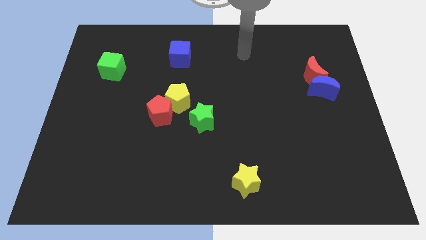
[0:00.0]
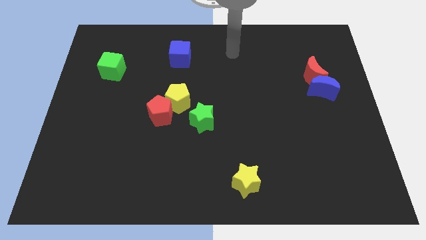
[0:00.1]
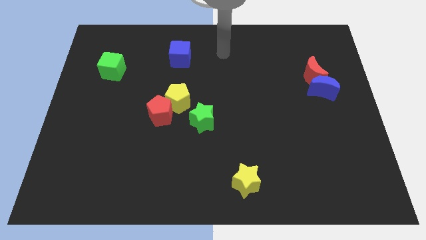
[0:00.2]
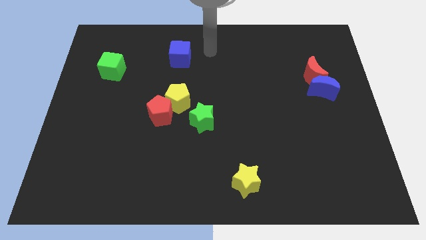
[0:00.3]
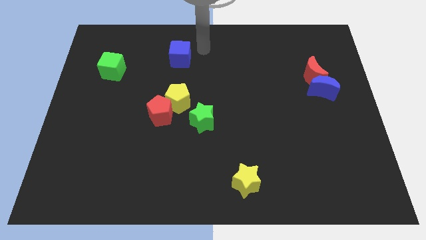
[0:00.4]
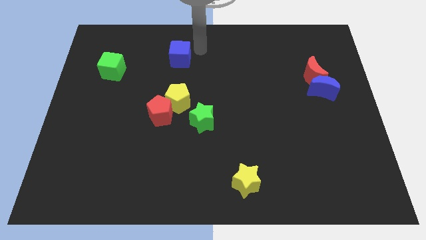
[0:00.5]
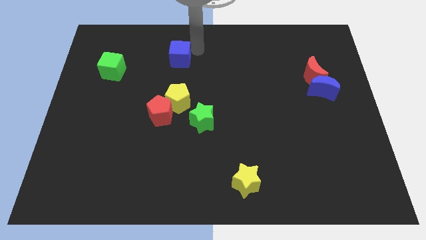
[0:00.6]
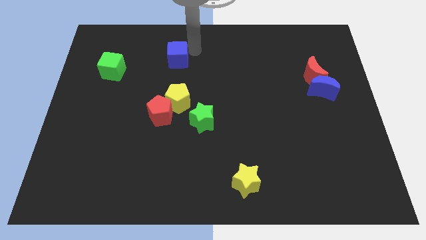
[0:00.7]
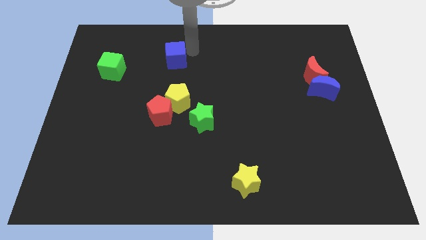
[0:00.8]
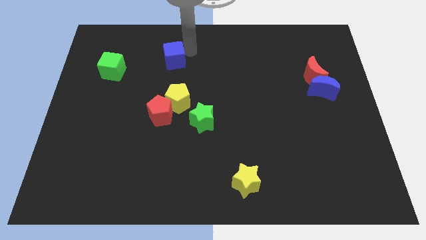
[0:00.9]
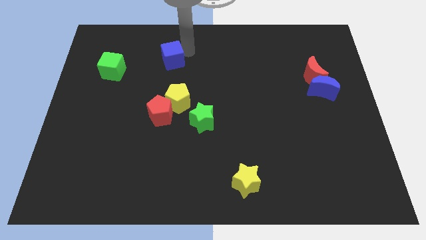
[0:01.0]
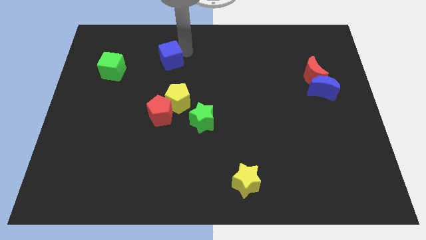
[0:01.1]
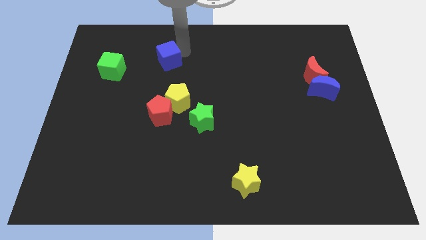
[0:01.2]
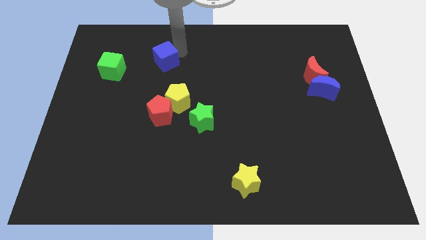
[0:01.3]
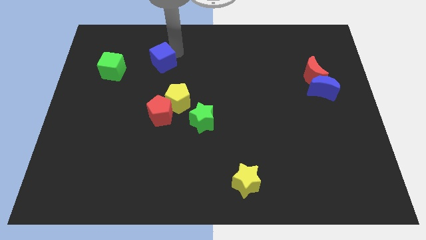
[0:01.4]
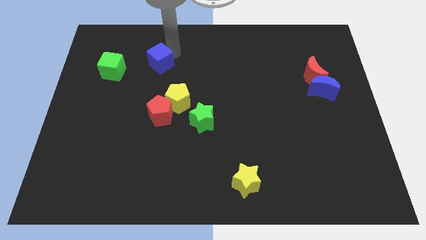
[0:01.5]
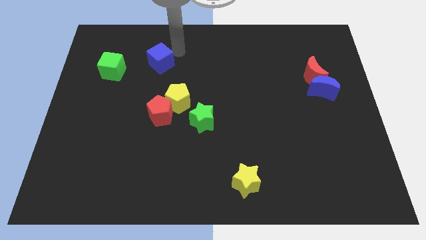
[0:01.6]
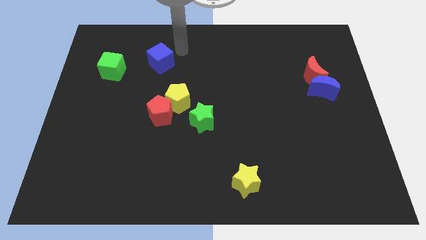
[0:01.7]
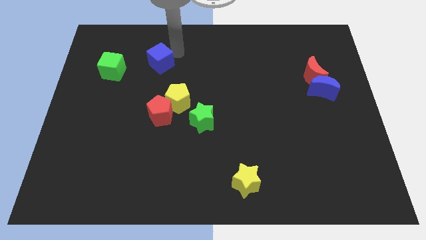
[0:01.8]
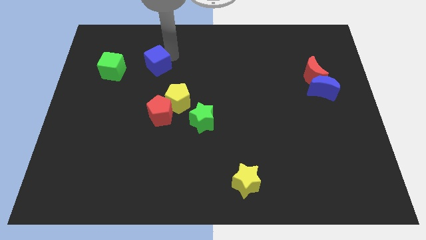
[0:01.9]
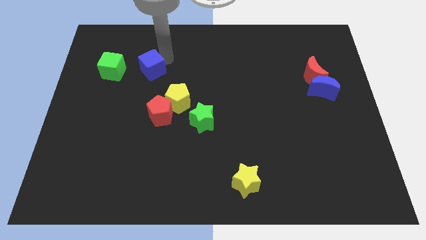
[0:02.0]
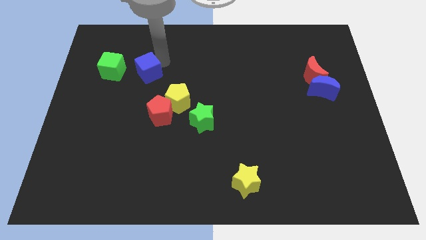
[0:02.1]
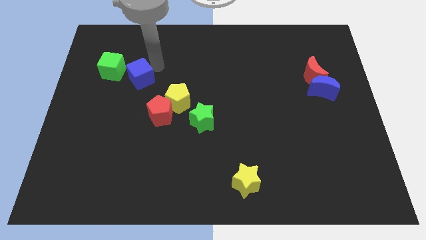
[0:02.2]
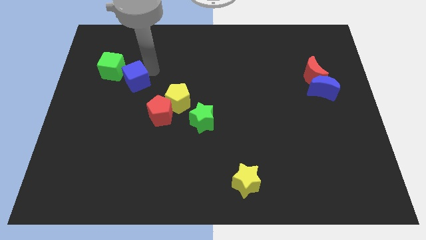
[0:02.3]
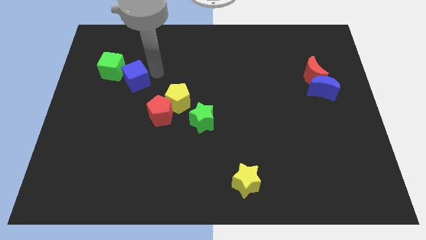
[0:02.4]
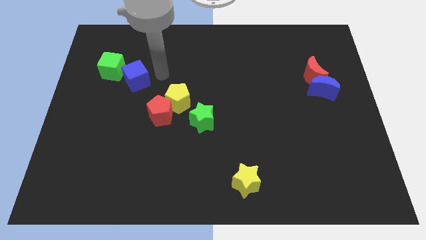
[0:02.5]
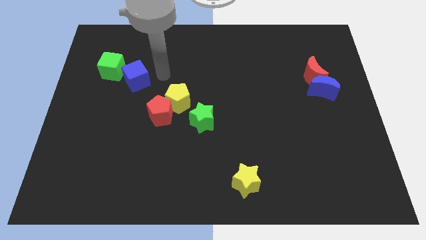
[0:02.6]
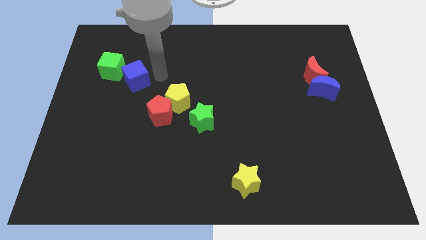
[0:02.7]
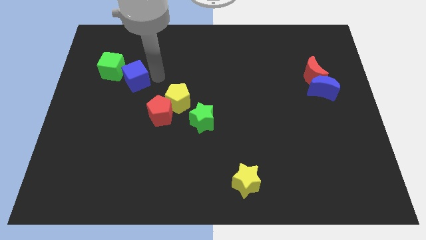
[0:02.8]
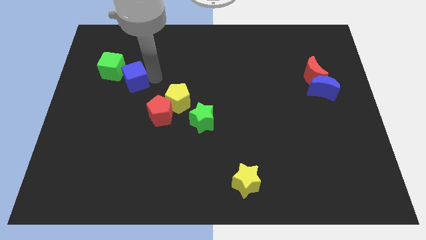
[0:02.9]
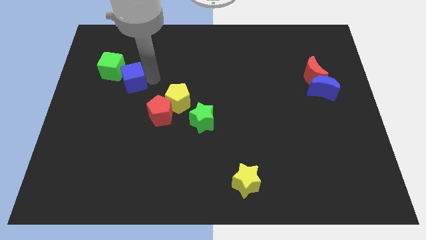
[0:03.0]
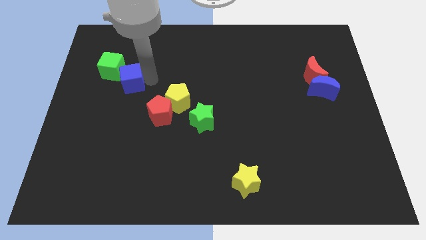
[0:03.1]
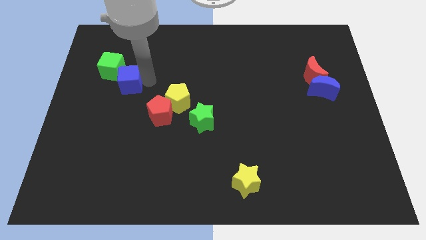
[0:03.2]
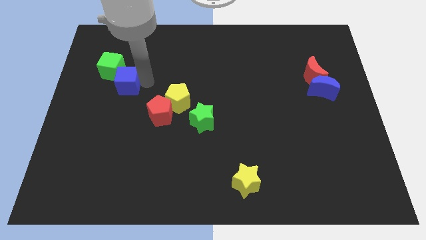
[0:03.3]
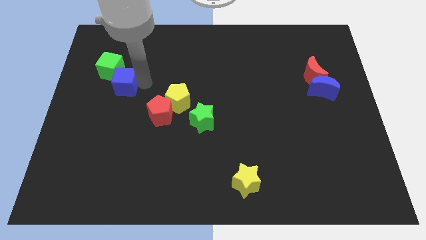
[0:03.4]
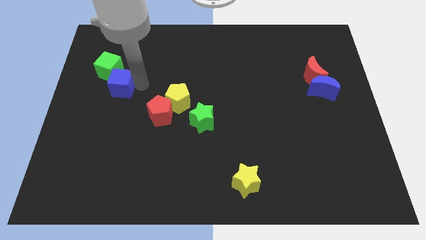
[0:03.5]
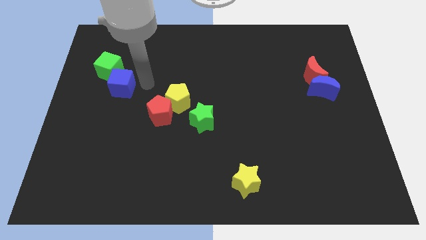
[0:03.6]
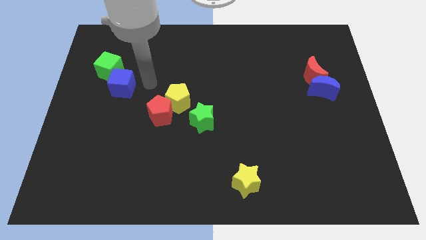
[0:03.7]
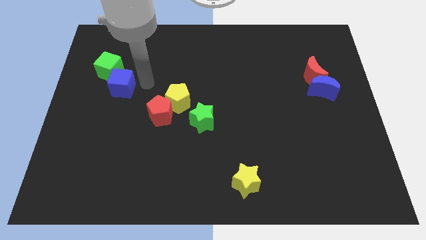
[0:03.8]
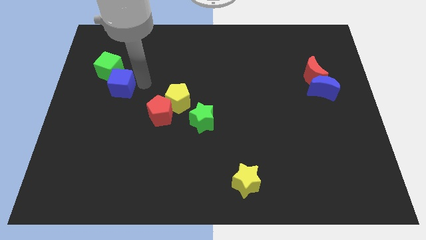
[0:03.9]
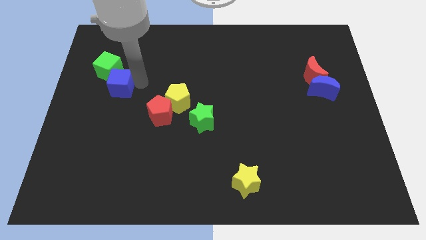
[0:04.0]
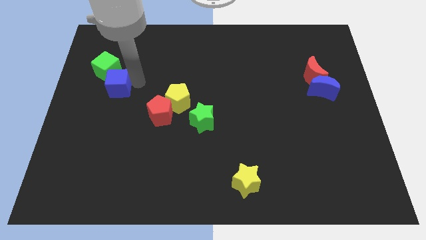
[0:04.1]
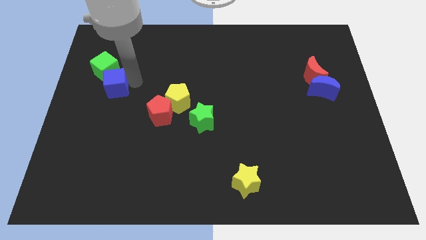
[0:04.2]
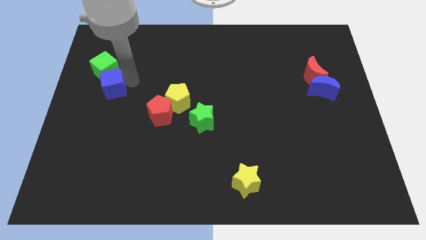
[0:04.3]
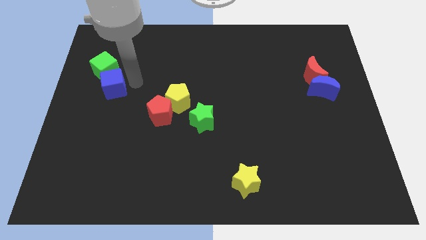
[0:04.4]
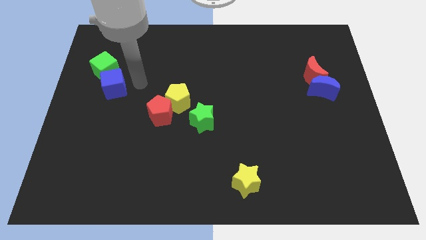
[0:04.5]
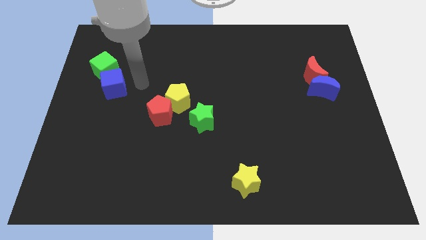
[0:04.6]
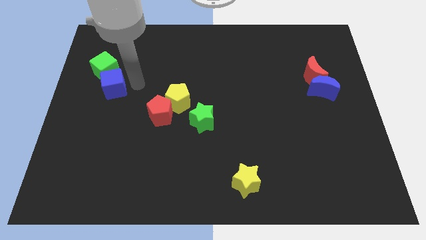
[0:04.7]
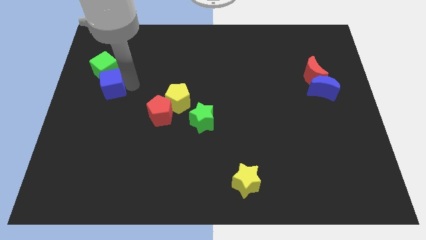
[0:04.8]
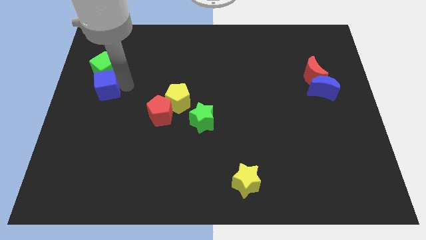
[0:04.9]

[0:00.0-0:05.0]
push the blue cube to the left side of the board

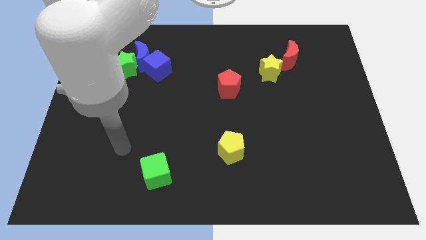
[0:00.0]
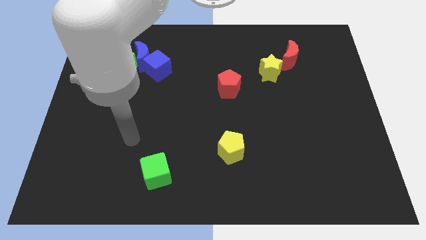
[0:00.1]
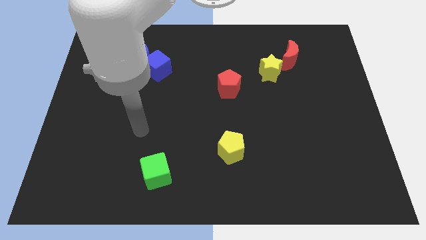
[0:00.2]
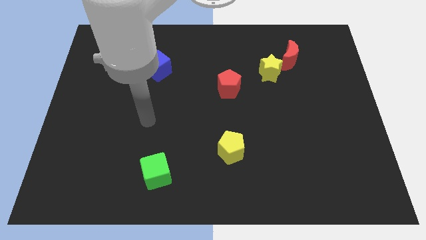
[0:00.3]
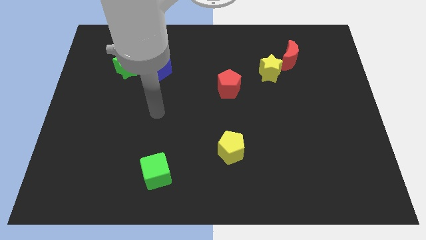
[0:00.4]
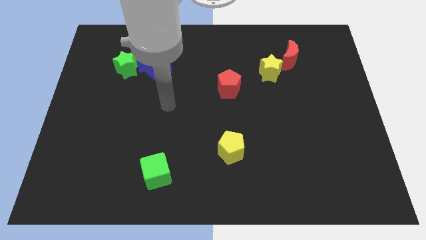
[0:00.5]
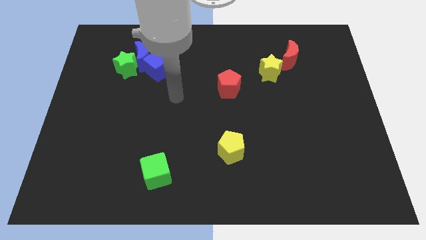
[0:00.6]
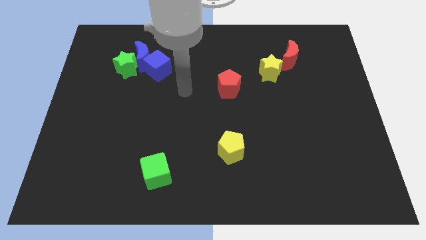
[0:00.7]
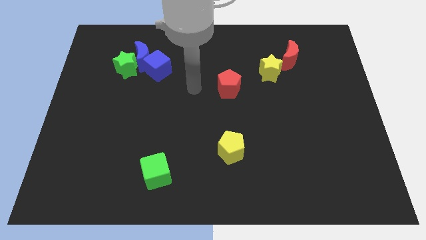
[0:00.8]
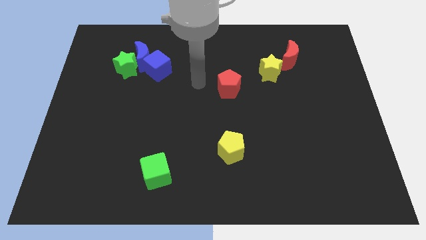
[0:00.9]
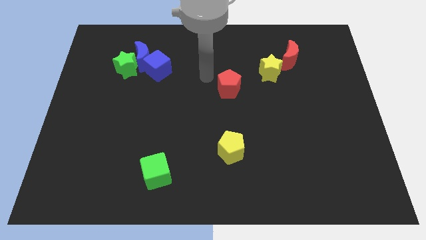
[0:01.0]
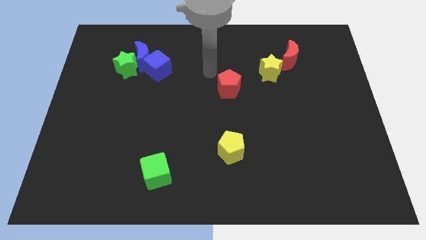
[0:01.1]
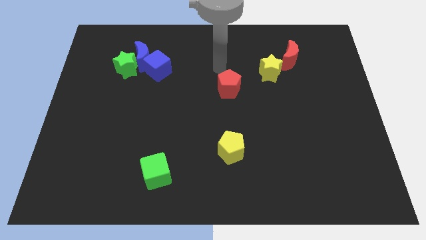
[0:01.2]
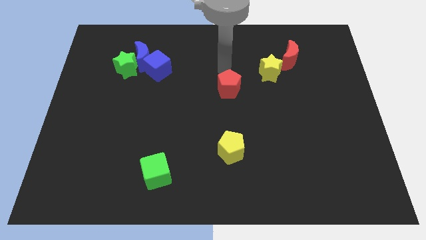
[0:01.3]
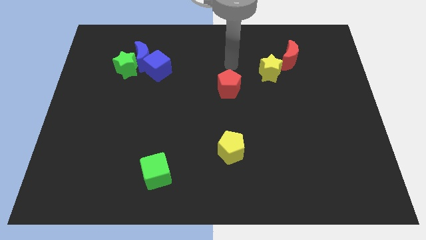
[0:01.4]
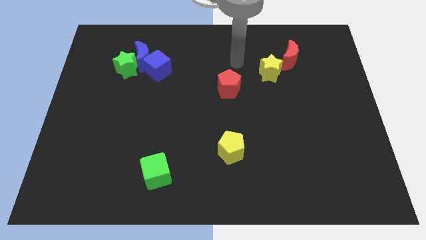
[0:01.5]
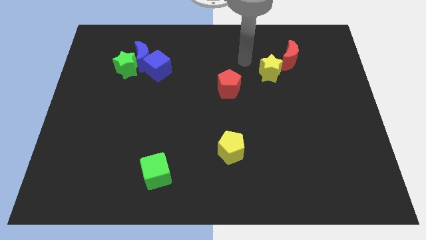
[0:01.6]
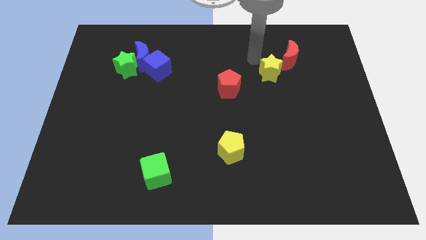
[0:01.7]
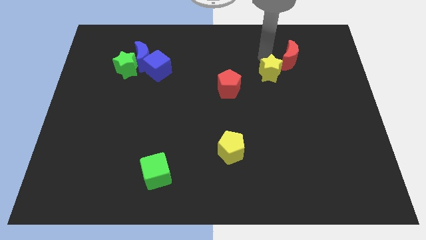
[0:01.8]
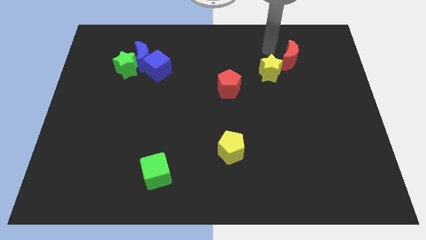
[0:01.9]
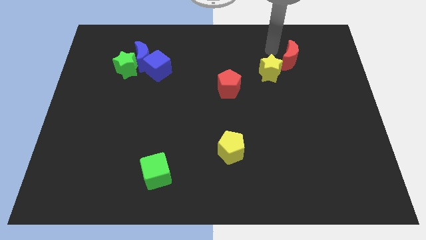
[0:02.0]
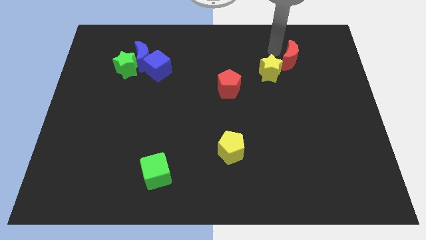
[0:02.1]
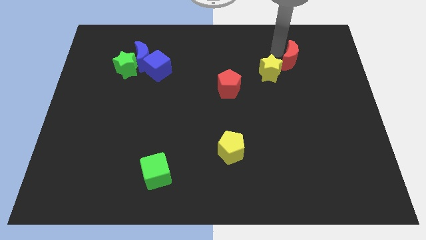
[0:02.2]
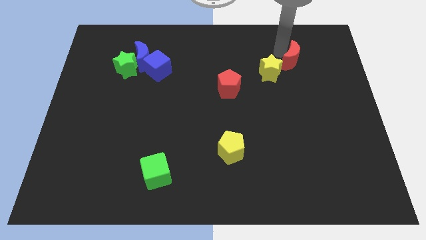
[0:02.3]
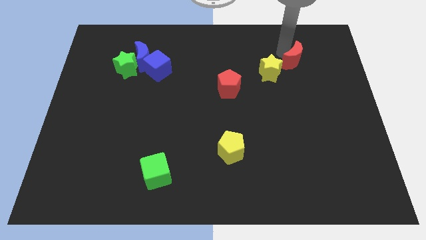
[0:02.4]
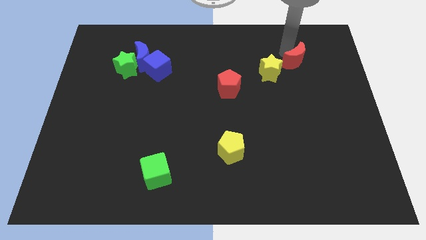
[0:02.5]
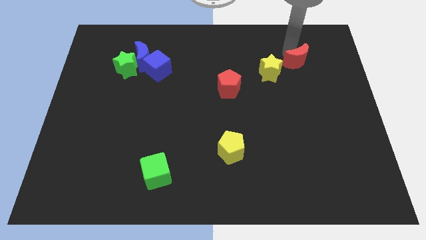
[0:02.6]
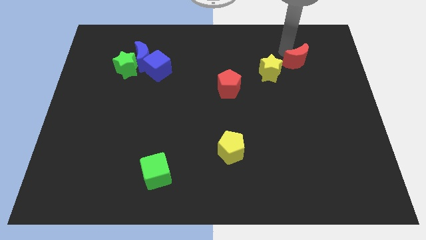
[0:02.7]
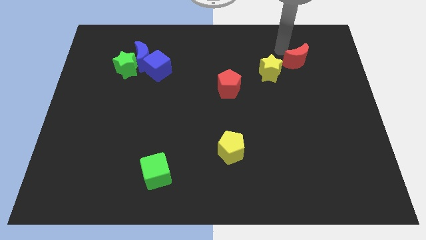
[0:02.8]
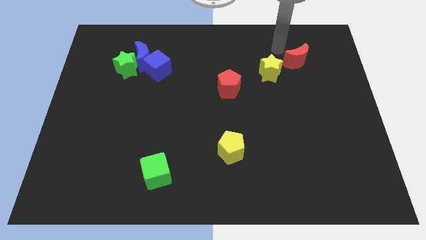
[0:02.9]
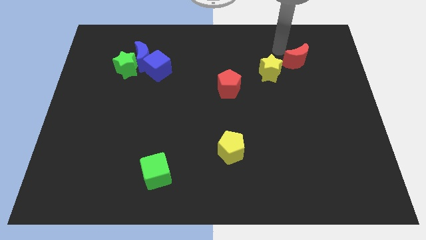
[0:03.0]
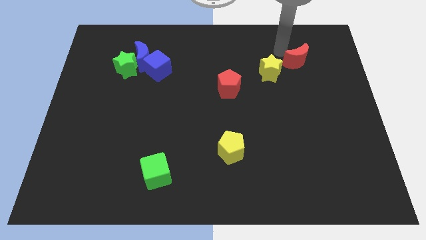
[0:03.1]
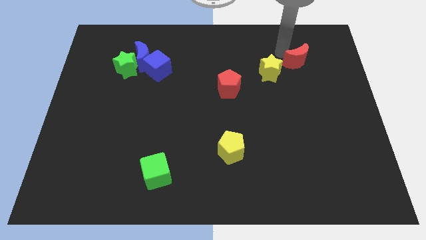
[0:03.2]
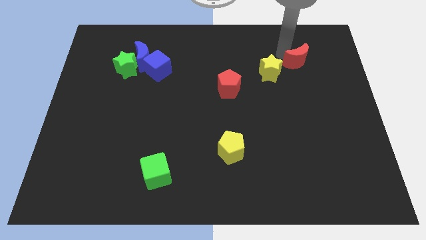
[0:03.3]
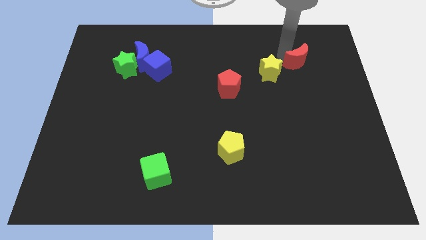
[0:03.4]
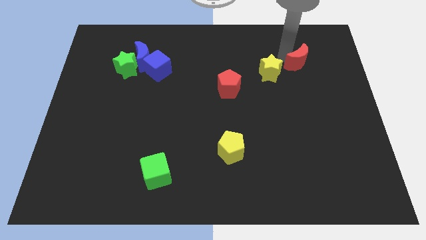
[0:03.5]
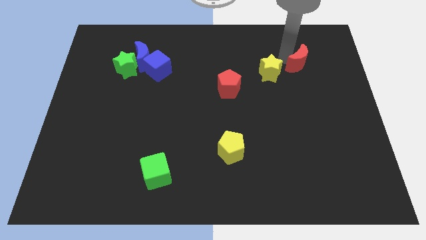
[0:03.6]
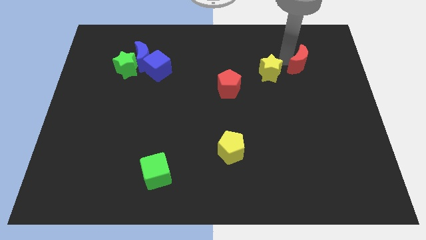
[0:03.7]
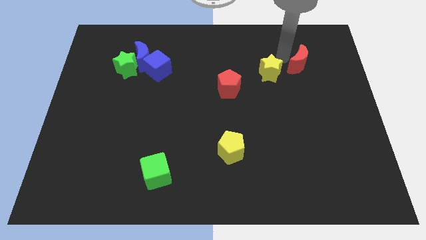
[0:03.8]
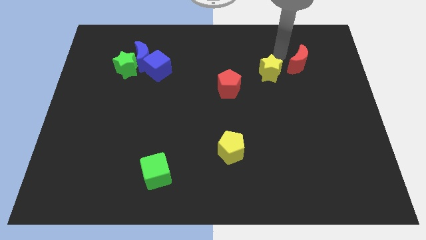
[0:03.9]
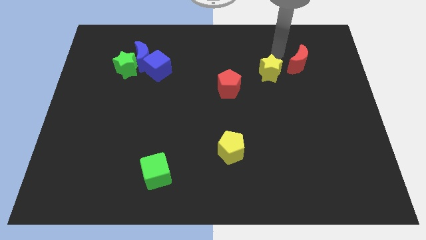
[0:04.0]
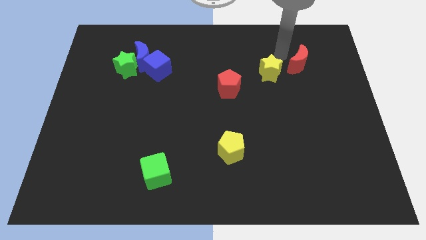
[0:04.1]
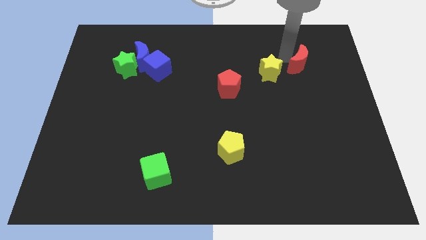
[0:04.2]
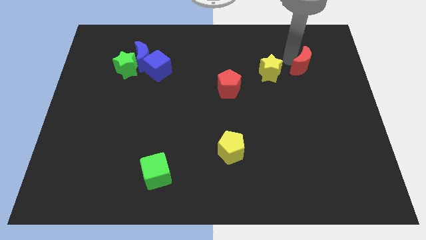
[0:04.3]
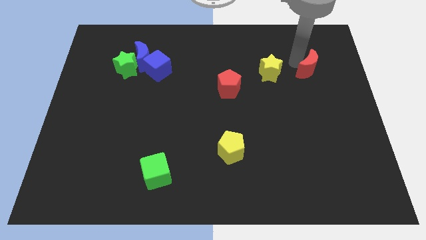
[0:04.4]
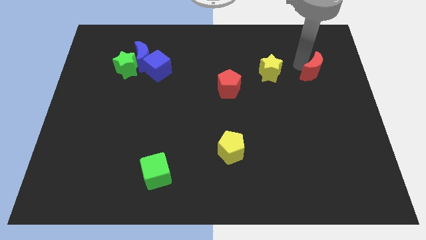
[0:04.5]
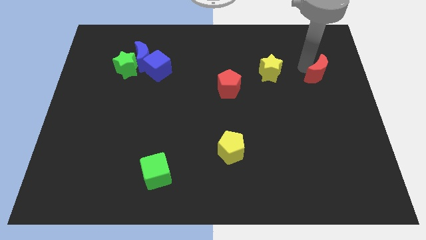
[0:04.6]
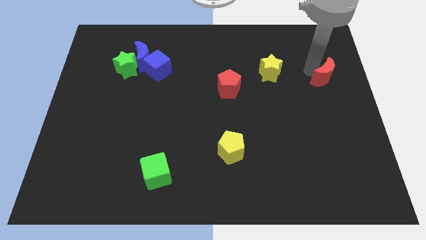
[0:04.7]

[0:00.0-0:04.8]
put the red moon to the center right
